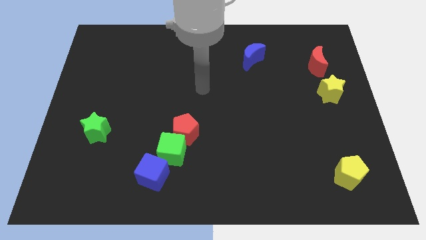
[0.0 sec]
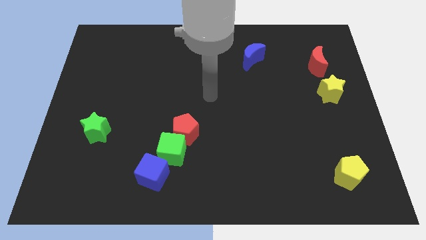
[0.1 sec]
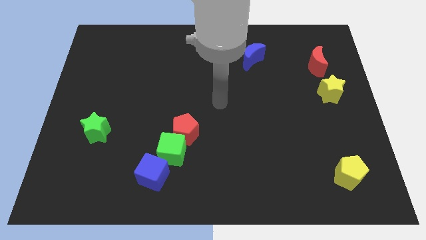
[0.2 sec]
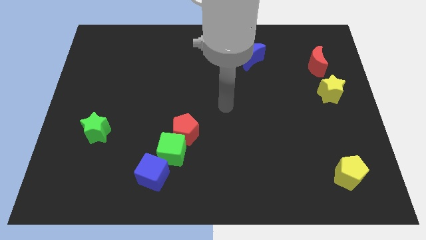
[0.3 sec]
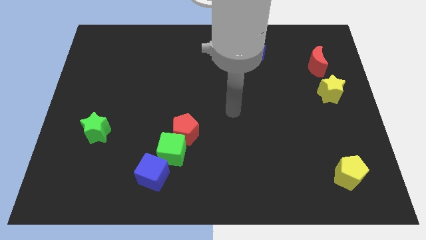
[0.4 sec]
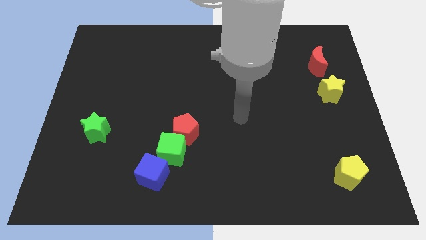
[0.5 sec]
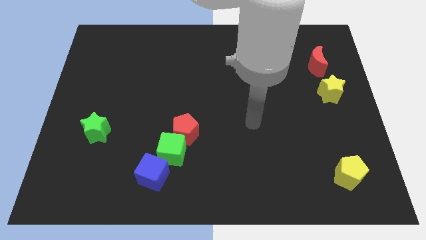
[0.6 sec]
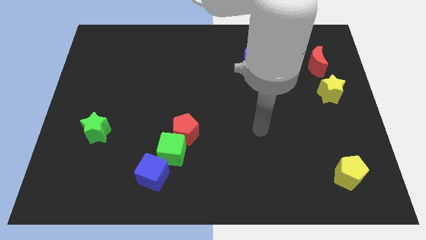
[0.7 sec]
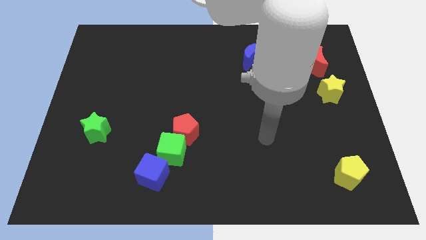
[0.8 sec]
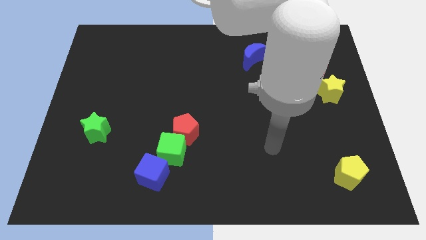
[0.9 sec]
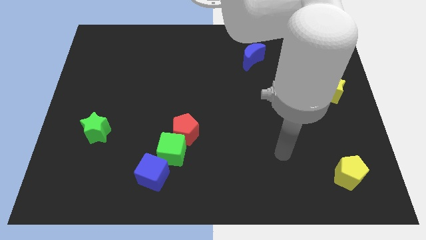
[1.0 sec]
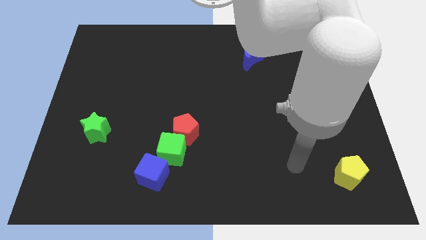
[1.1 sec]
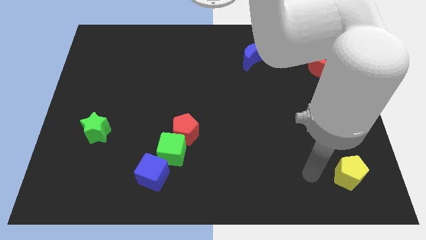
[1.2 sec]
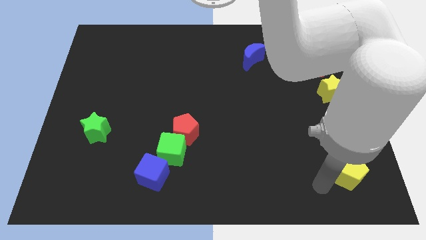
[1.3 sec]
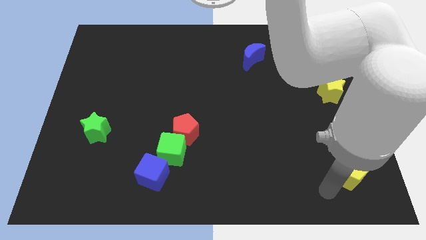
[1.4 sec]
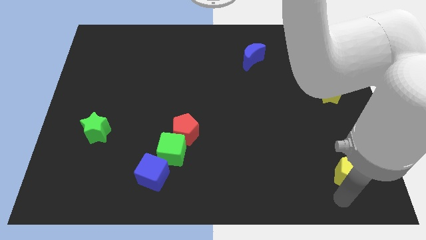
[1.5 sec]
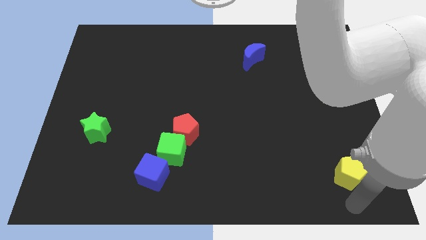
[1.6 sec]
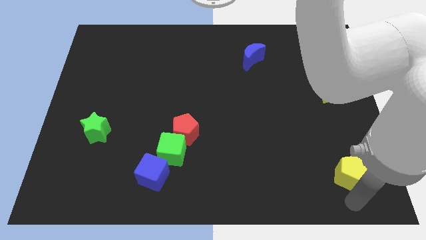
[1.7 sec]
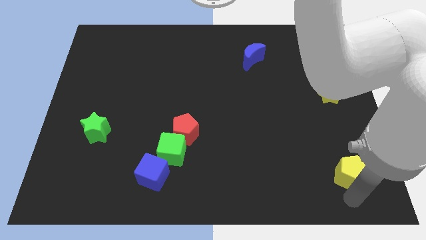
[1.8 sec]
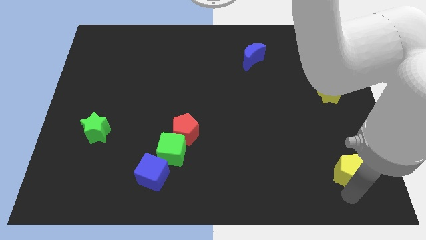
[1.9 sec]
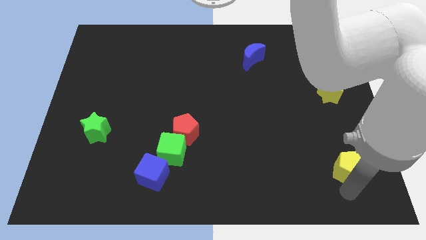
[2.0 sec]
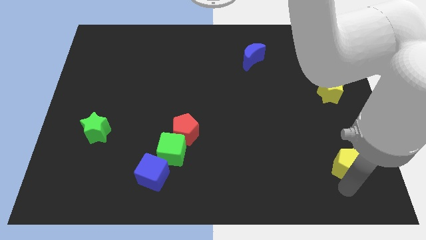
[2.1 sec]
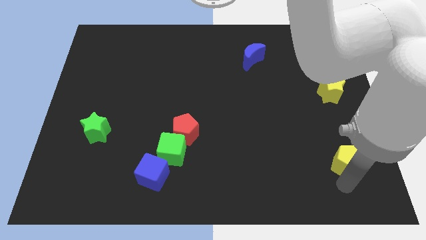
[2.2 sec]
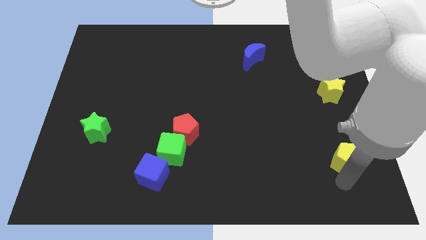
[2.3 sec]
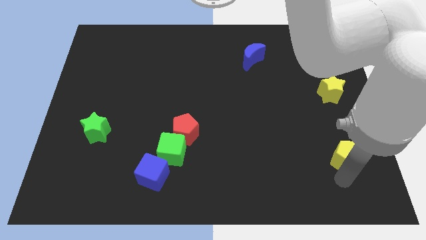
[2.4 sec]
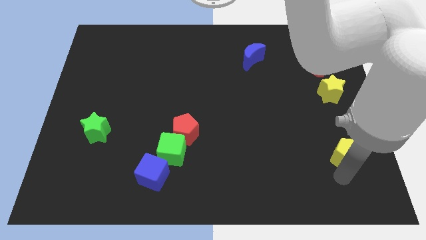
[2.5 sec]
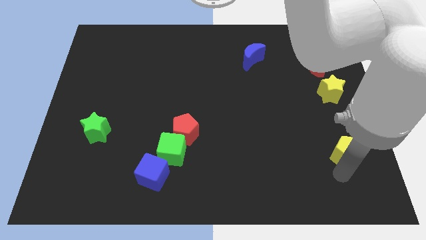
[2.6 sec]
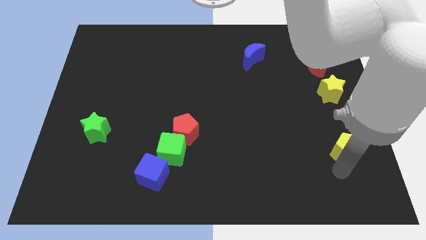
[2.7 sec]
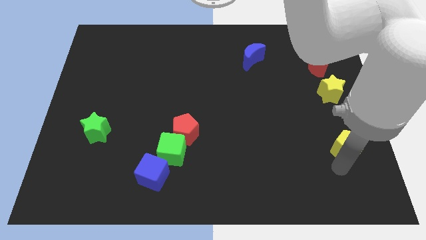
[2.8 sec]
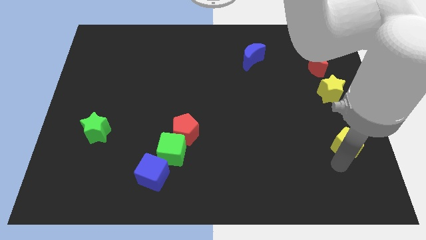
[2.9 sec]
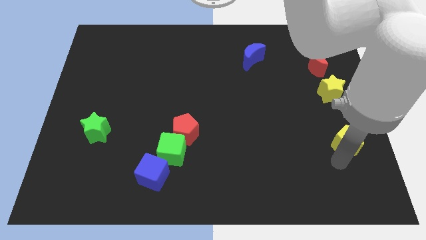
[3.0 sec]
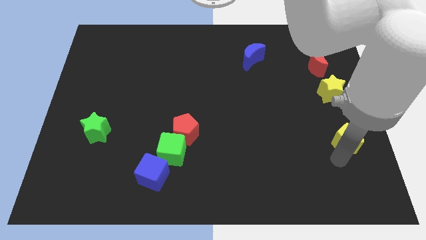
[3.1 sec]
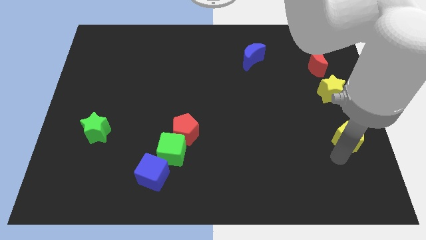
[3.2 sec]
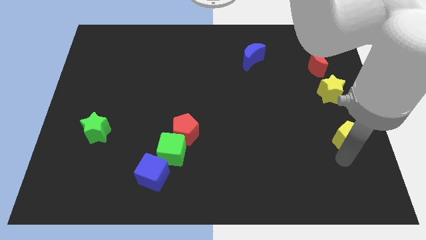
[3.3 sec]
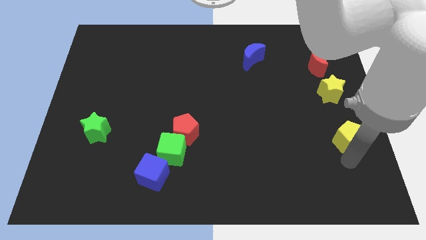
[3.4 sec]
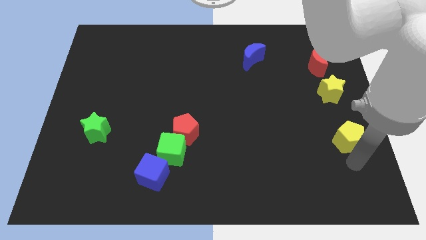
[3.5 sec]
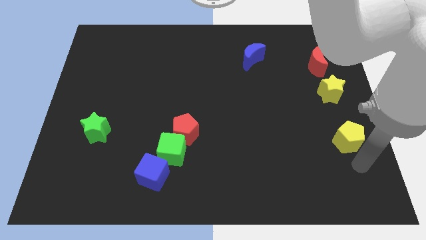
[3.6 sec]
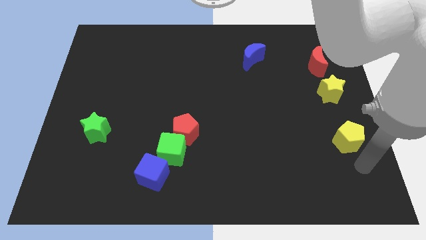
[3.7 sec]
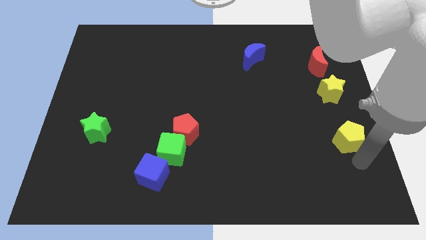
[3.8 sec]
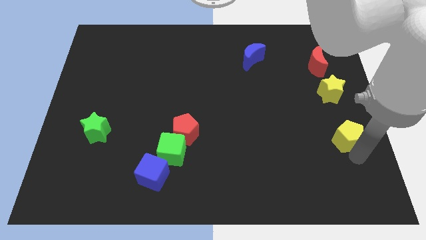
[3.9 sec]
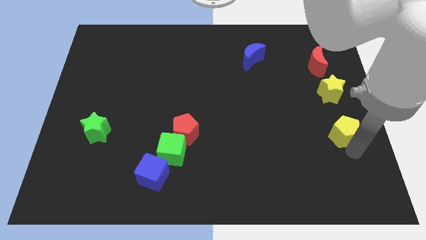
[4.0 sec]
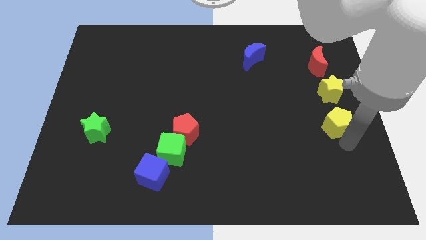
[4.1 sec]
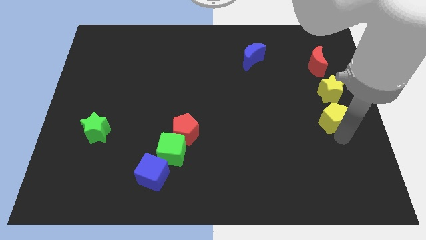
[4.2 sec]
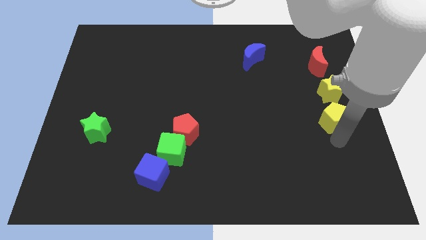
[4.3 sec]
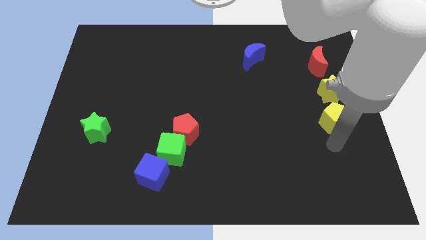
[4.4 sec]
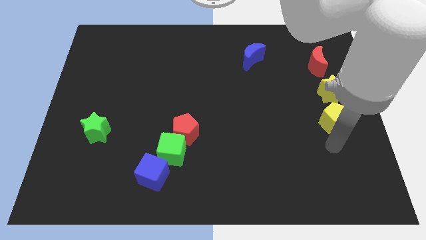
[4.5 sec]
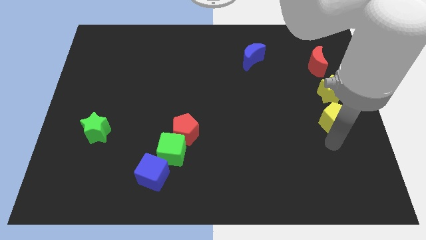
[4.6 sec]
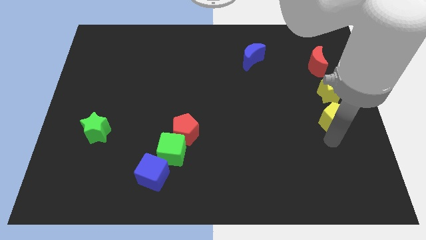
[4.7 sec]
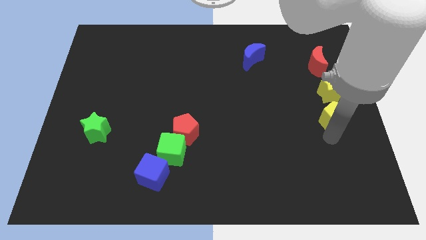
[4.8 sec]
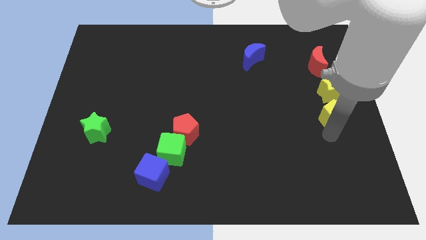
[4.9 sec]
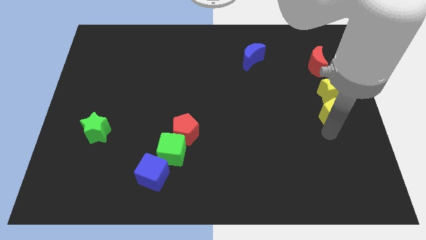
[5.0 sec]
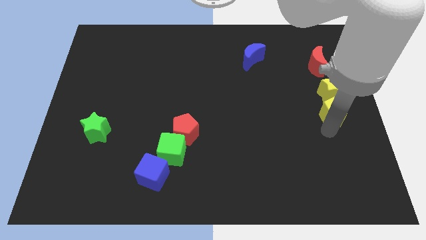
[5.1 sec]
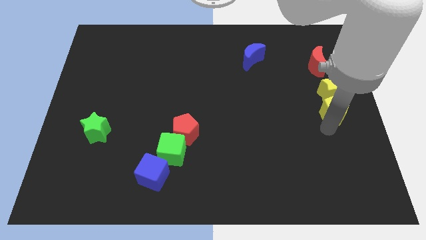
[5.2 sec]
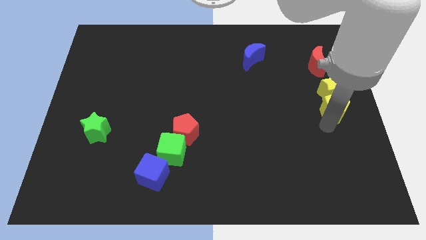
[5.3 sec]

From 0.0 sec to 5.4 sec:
push the yellow pentagon towards the yellow star

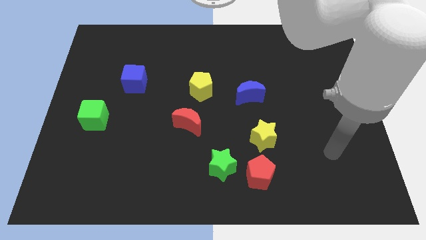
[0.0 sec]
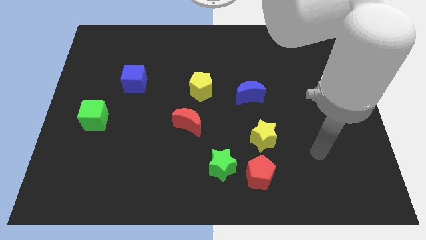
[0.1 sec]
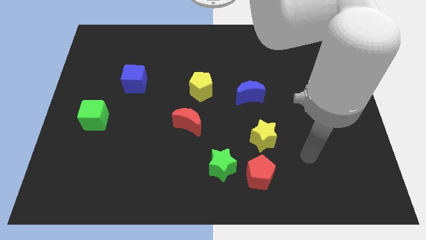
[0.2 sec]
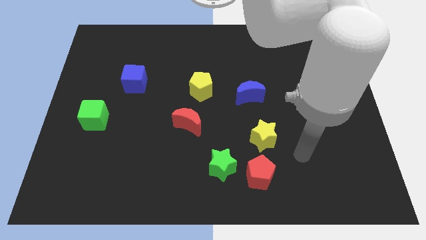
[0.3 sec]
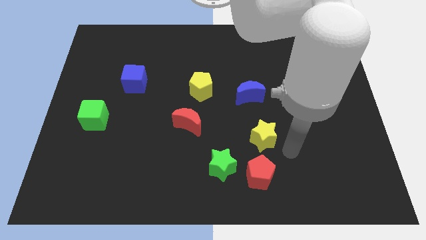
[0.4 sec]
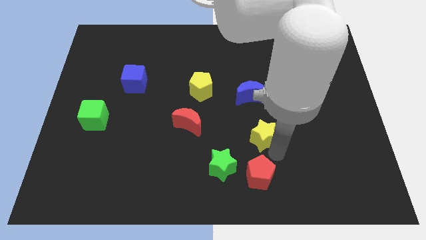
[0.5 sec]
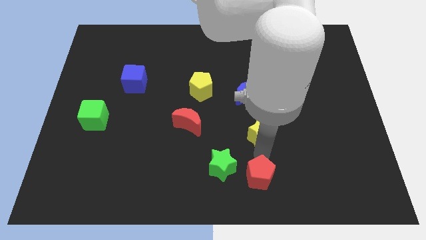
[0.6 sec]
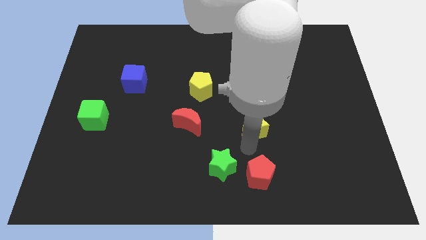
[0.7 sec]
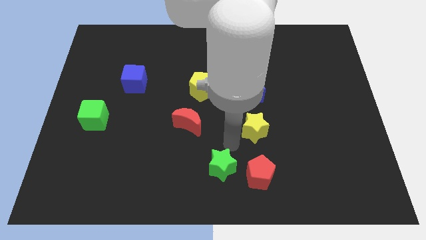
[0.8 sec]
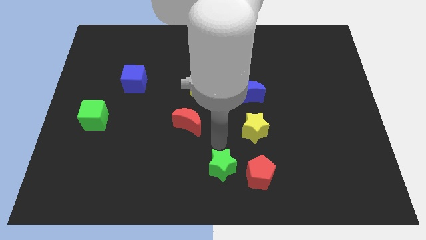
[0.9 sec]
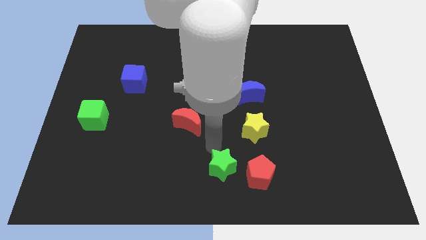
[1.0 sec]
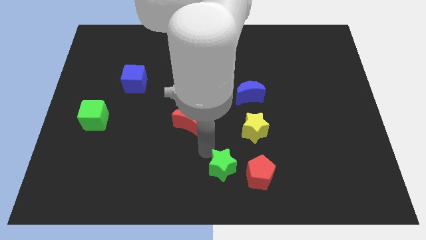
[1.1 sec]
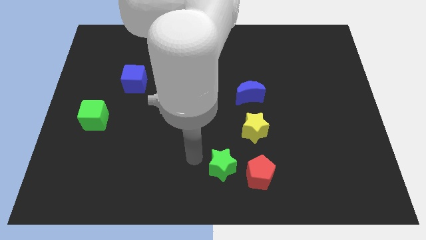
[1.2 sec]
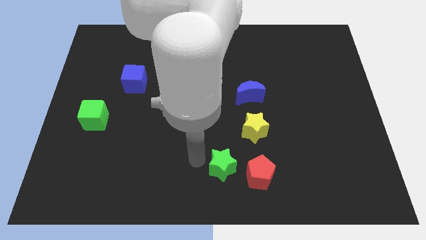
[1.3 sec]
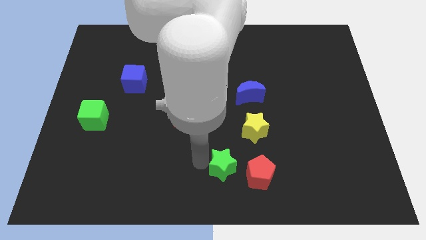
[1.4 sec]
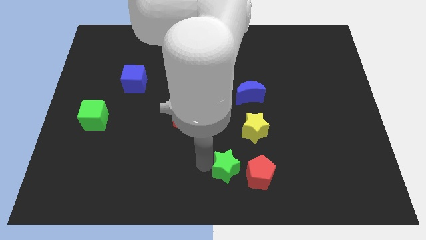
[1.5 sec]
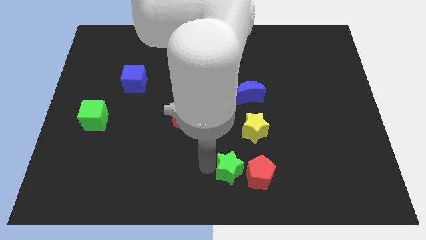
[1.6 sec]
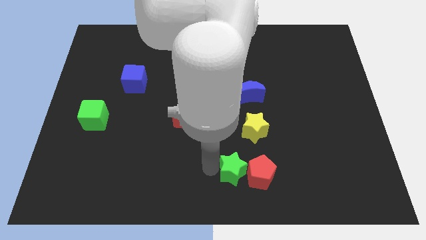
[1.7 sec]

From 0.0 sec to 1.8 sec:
push the green star towards the red pentagon
